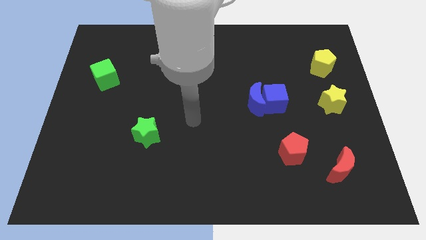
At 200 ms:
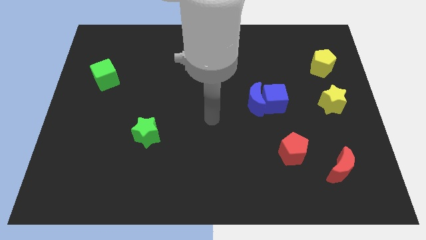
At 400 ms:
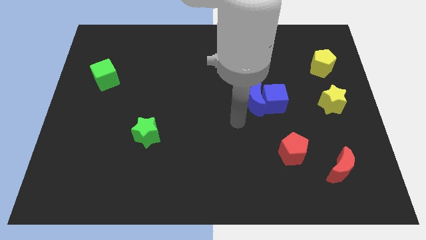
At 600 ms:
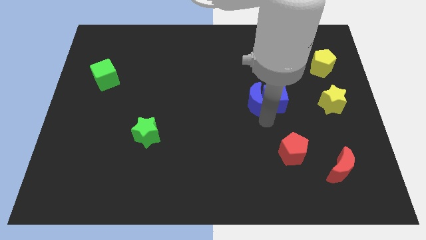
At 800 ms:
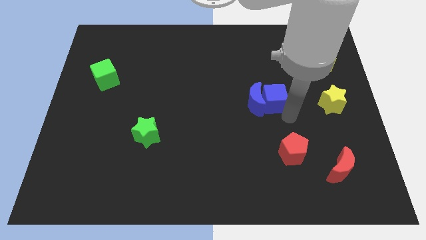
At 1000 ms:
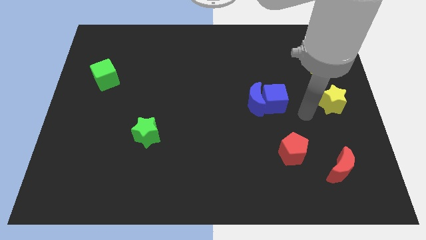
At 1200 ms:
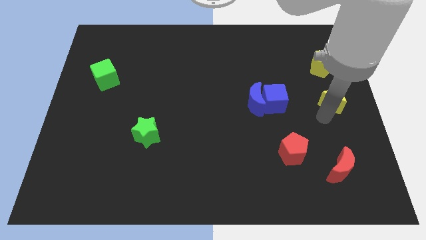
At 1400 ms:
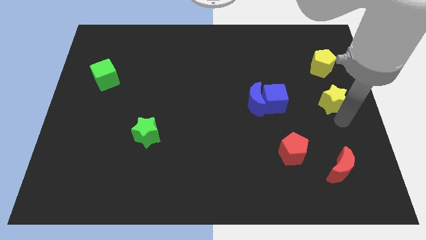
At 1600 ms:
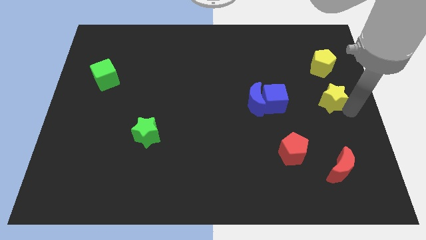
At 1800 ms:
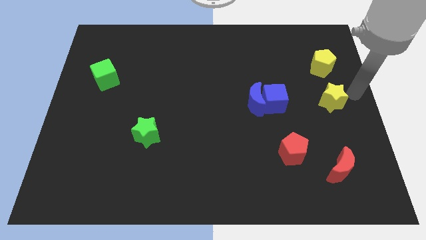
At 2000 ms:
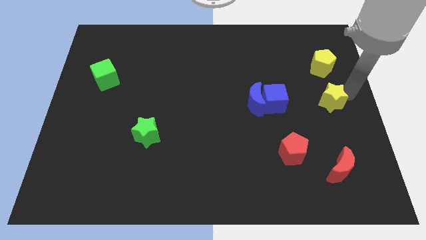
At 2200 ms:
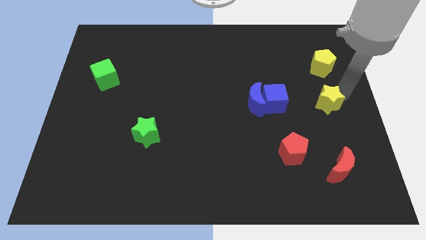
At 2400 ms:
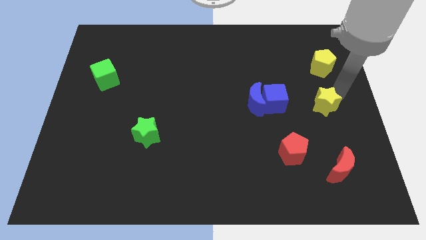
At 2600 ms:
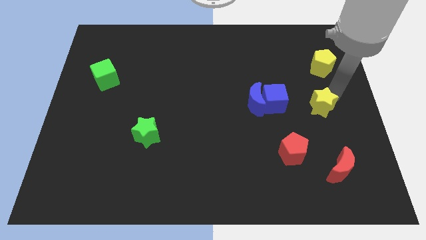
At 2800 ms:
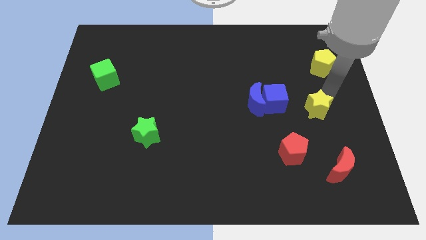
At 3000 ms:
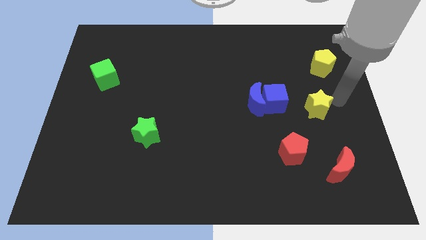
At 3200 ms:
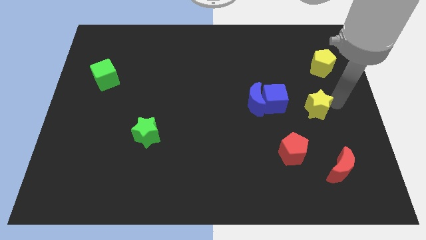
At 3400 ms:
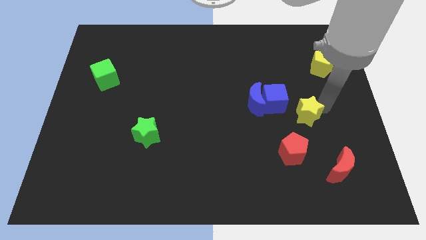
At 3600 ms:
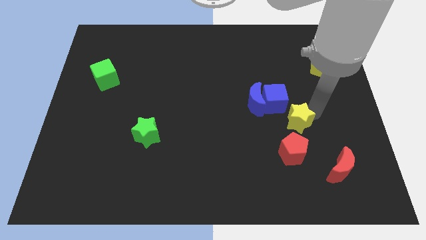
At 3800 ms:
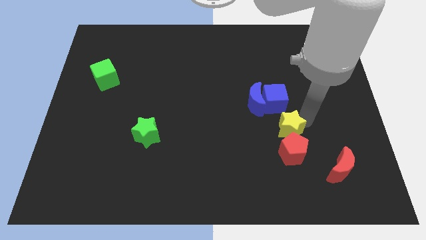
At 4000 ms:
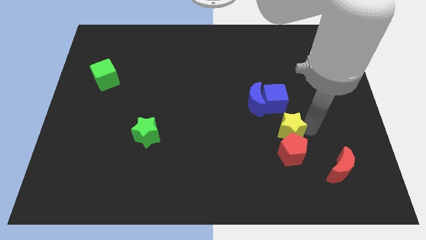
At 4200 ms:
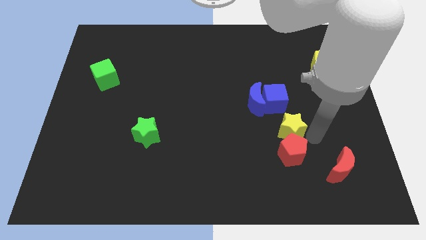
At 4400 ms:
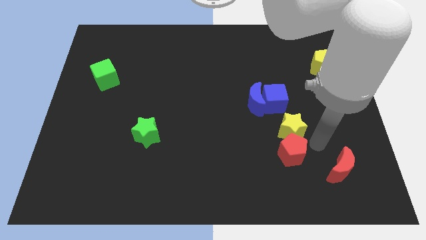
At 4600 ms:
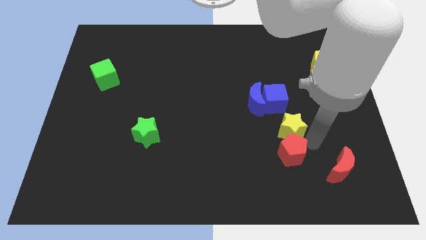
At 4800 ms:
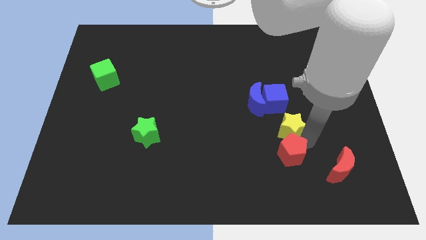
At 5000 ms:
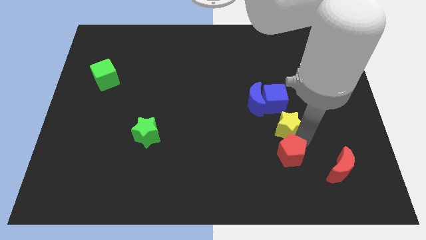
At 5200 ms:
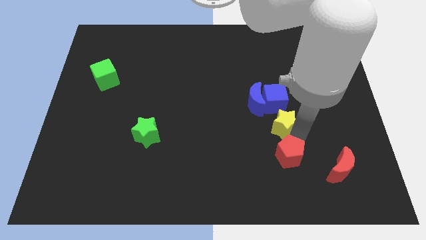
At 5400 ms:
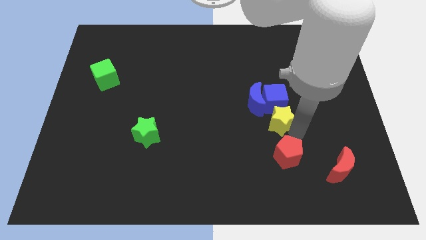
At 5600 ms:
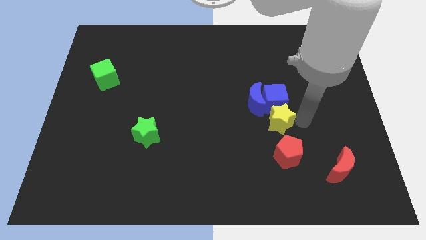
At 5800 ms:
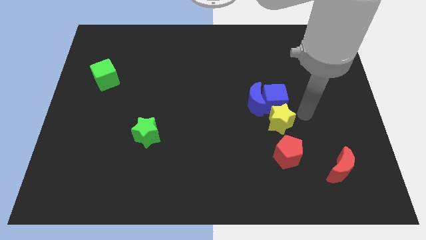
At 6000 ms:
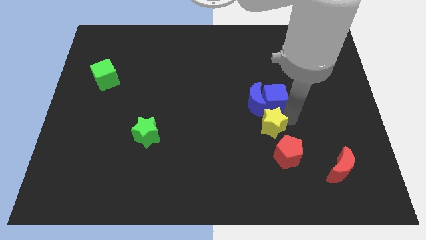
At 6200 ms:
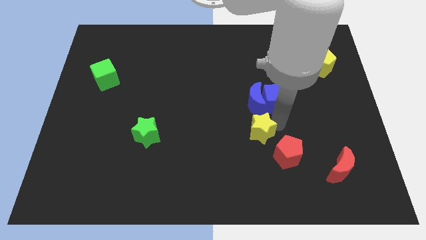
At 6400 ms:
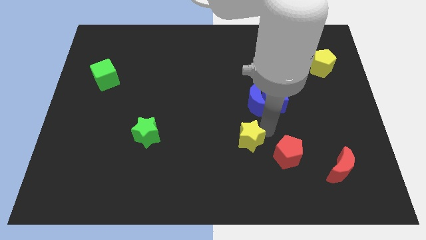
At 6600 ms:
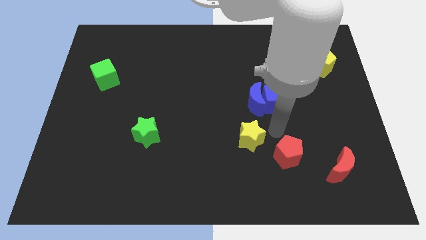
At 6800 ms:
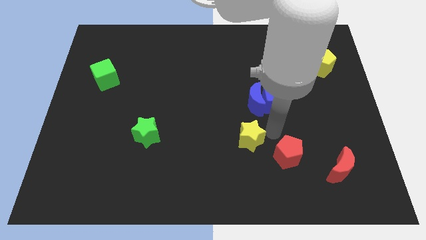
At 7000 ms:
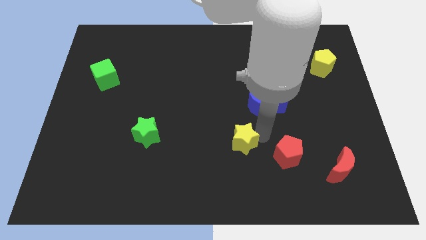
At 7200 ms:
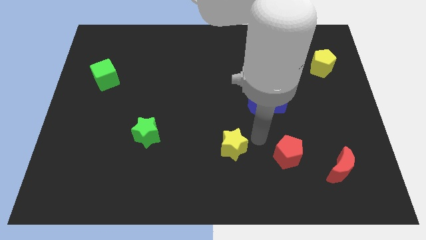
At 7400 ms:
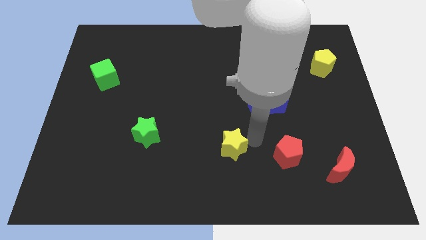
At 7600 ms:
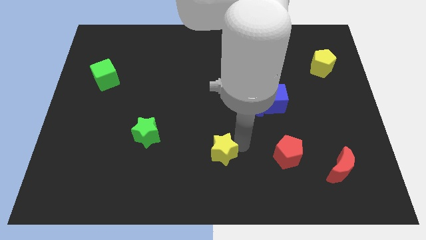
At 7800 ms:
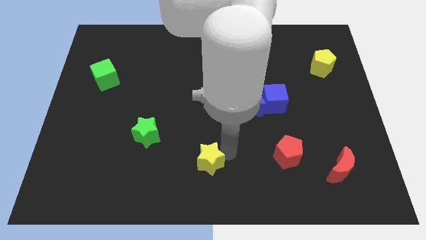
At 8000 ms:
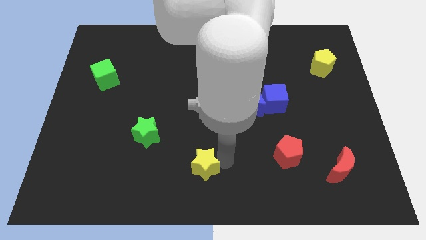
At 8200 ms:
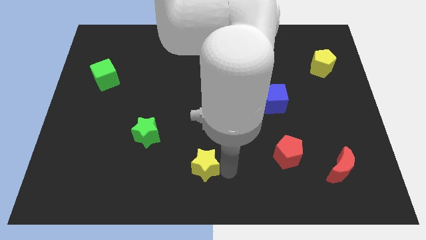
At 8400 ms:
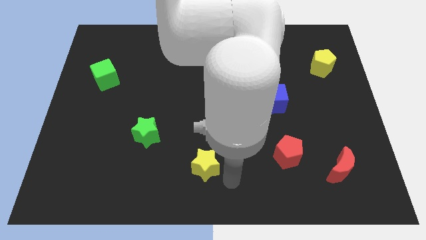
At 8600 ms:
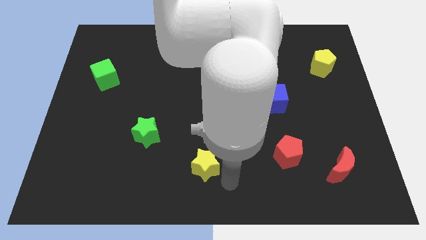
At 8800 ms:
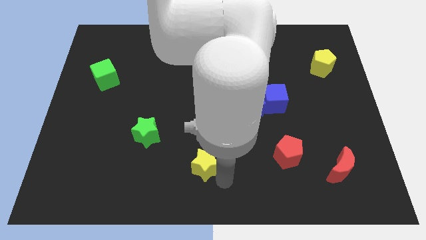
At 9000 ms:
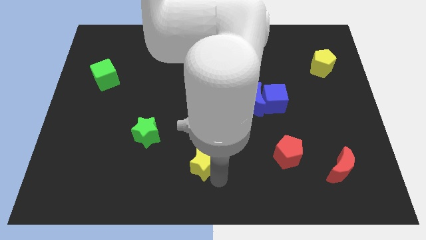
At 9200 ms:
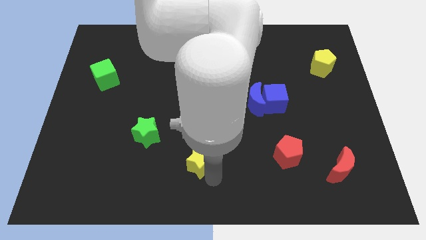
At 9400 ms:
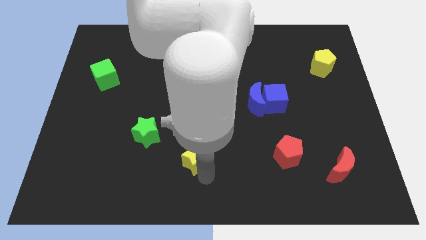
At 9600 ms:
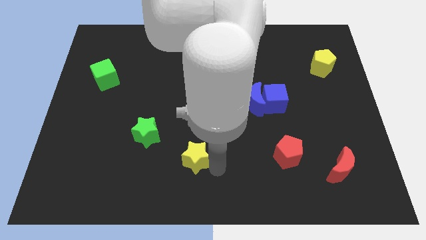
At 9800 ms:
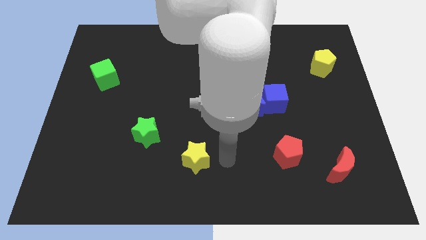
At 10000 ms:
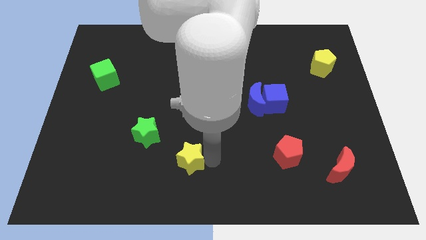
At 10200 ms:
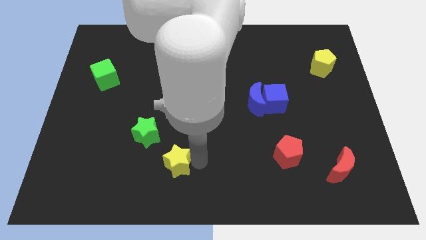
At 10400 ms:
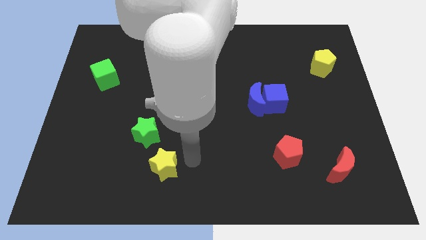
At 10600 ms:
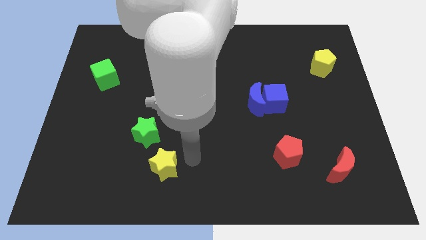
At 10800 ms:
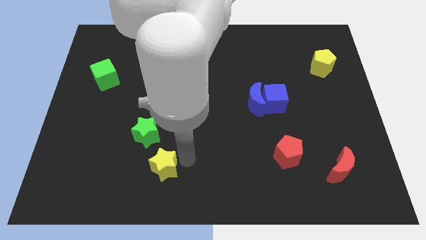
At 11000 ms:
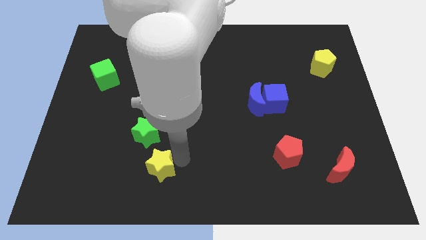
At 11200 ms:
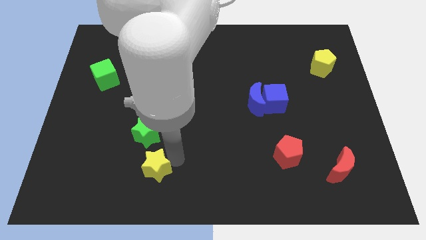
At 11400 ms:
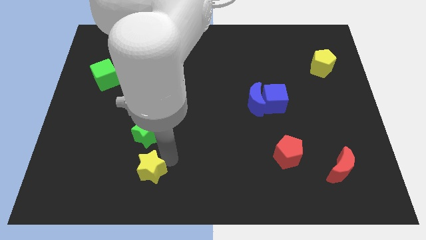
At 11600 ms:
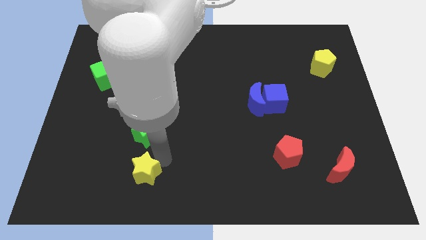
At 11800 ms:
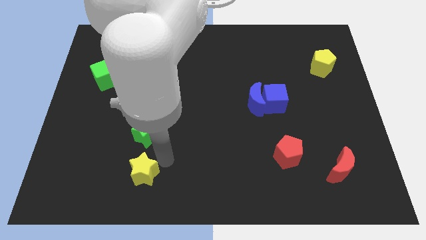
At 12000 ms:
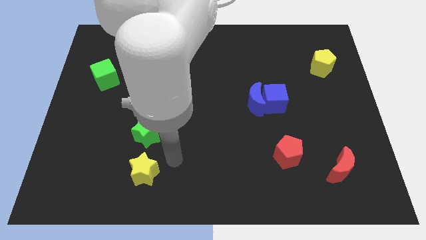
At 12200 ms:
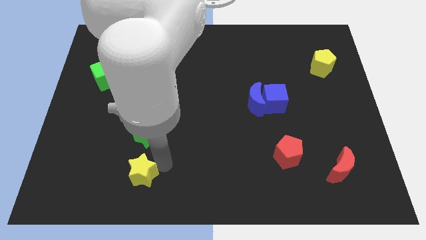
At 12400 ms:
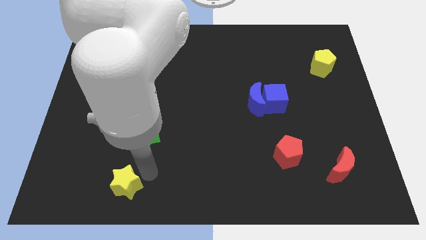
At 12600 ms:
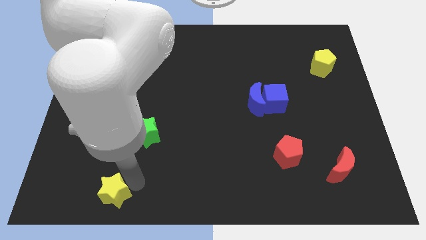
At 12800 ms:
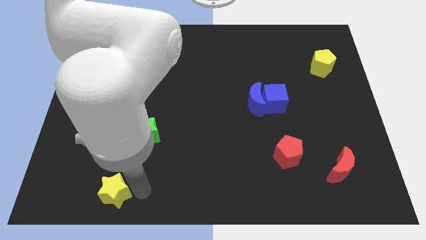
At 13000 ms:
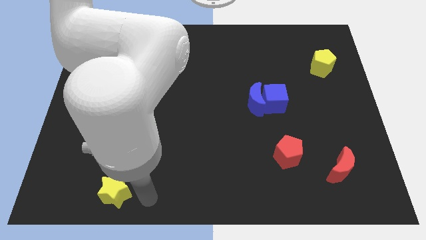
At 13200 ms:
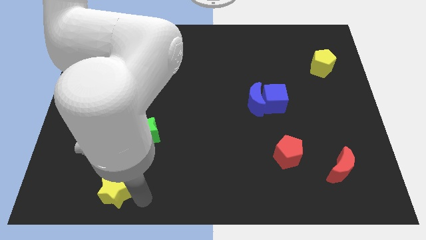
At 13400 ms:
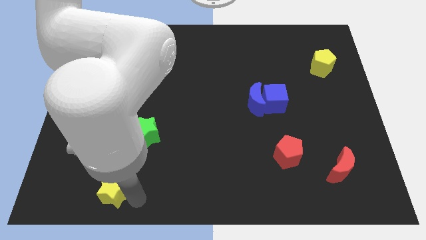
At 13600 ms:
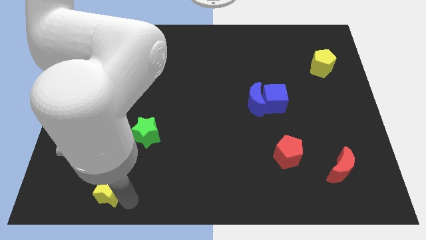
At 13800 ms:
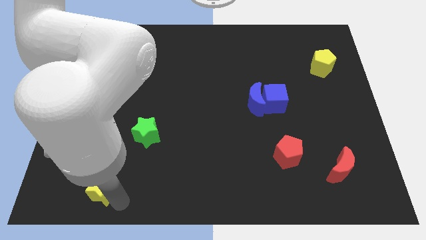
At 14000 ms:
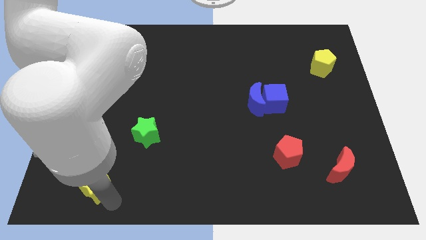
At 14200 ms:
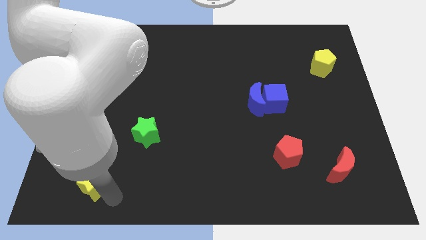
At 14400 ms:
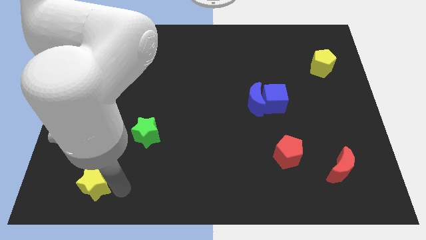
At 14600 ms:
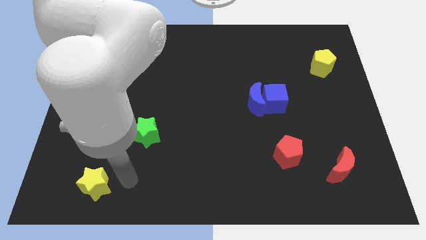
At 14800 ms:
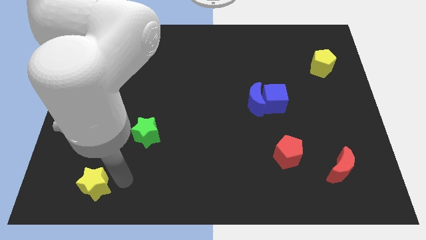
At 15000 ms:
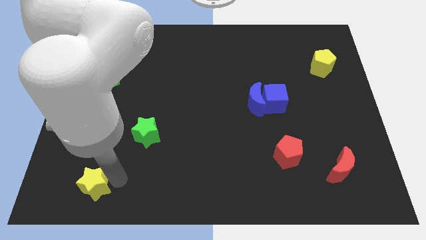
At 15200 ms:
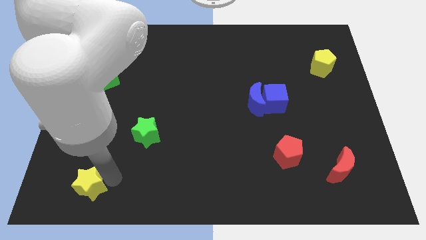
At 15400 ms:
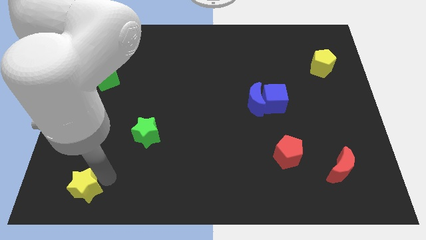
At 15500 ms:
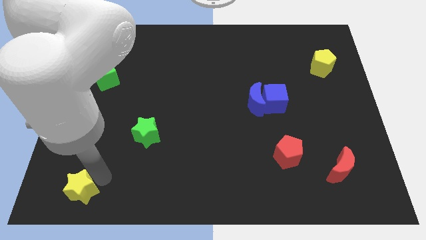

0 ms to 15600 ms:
slide the yellow star to the bottom left
